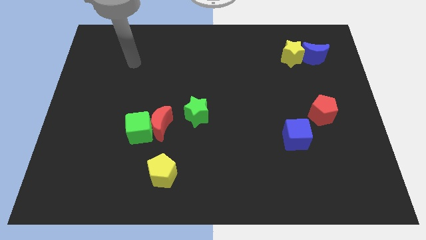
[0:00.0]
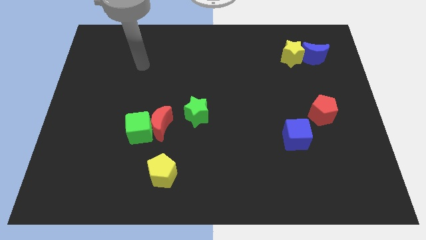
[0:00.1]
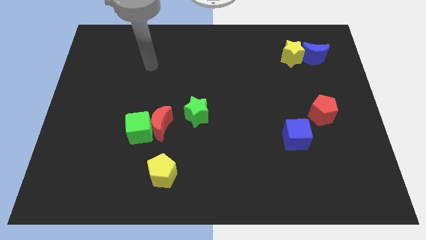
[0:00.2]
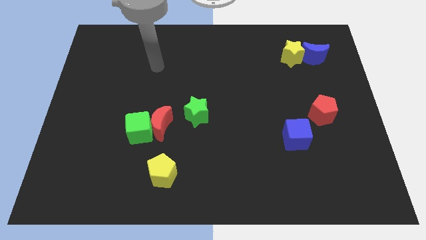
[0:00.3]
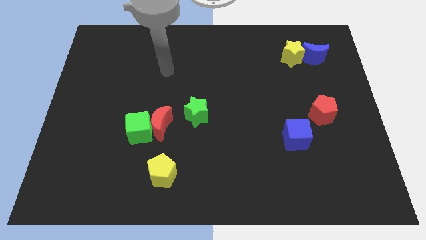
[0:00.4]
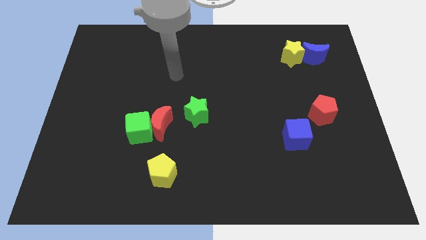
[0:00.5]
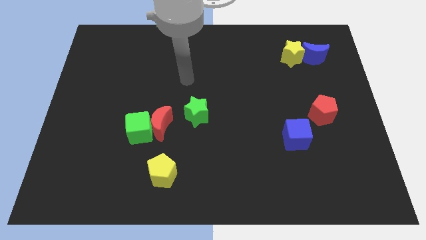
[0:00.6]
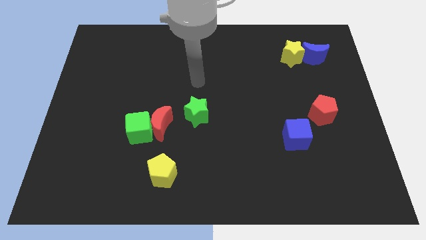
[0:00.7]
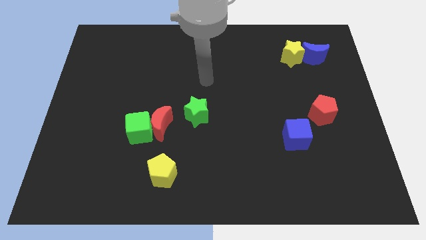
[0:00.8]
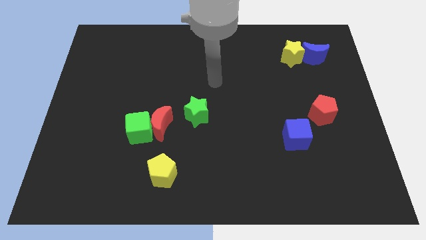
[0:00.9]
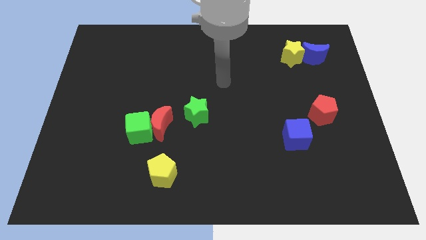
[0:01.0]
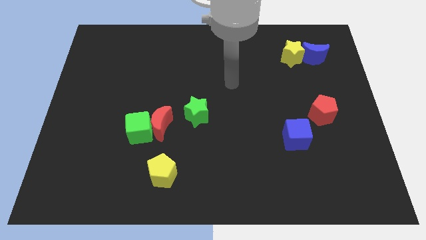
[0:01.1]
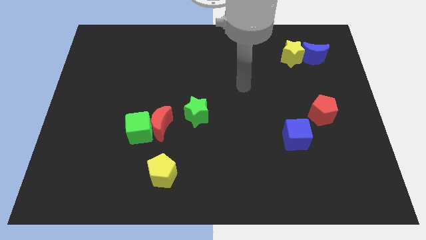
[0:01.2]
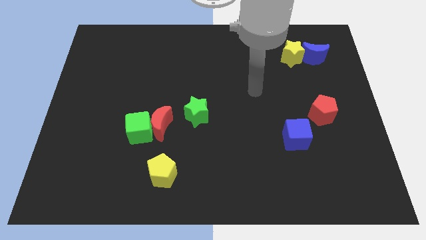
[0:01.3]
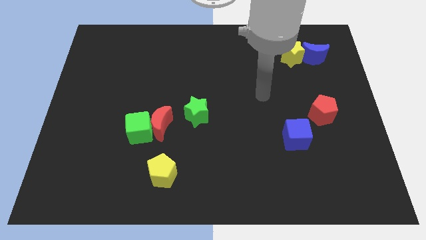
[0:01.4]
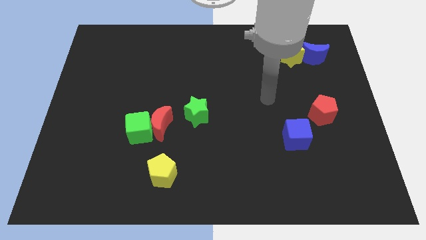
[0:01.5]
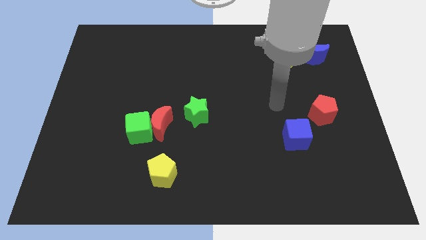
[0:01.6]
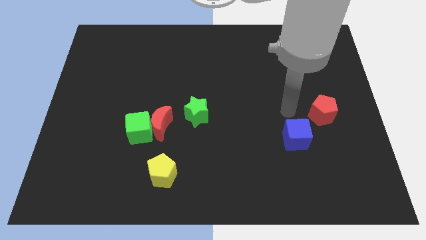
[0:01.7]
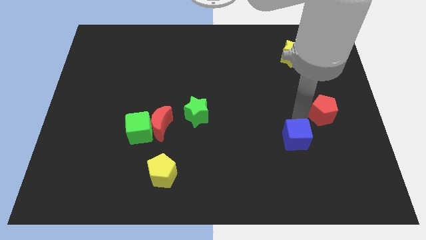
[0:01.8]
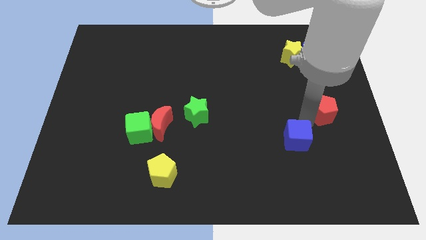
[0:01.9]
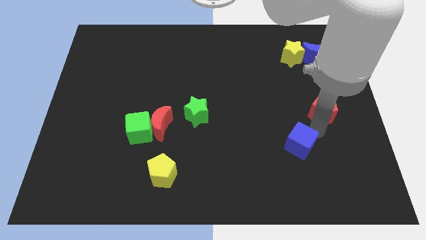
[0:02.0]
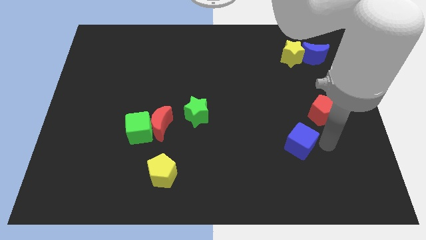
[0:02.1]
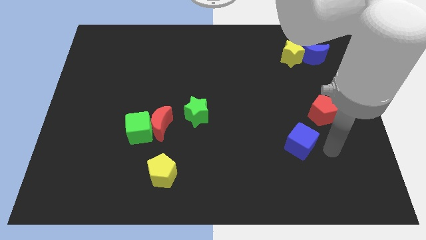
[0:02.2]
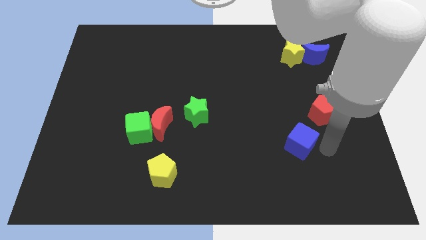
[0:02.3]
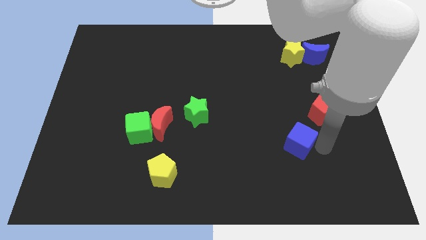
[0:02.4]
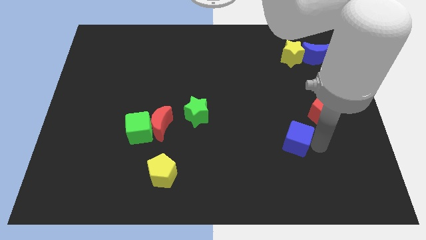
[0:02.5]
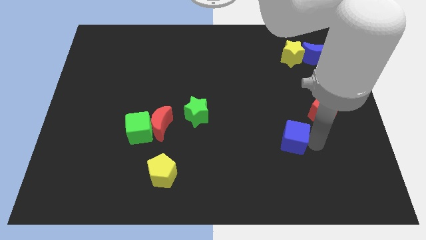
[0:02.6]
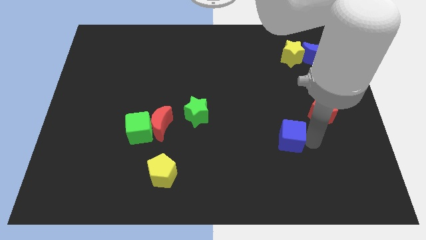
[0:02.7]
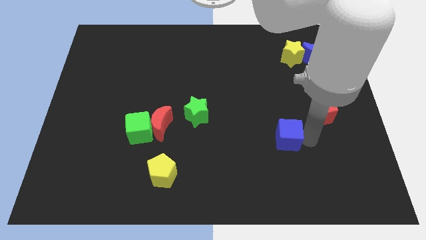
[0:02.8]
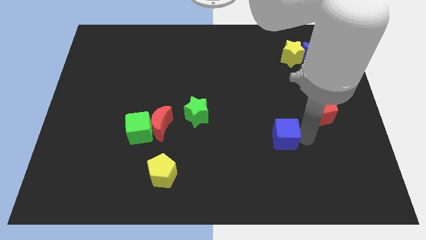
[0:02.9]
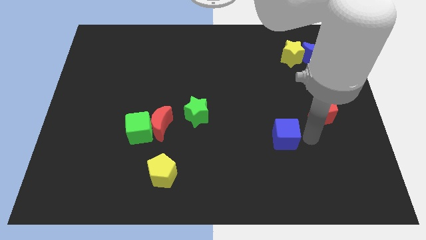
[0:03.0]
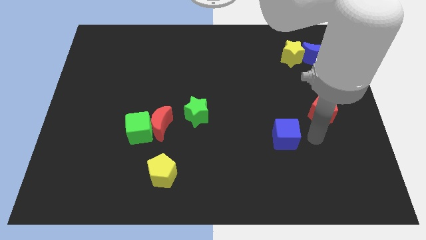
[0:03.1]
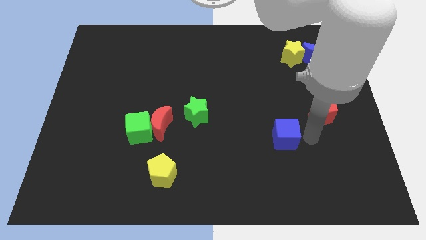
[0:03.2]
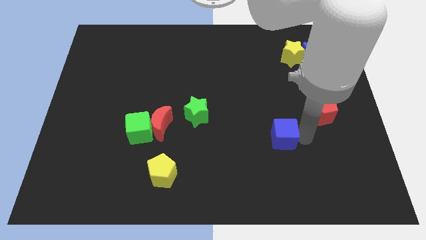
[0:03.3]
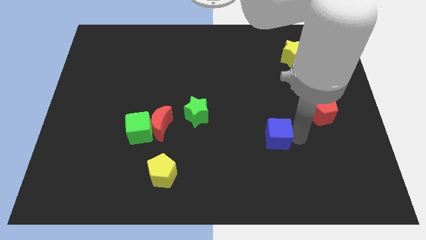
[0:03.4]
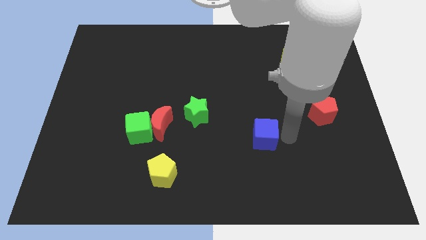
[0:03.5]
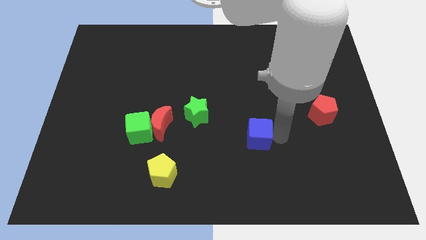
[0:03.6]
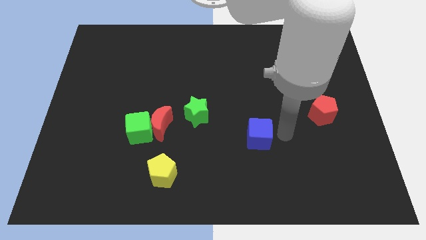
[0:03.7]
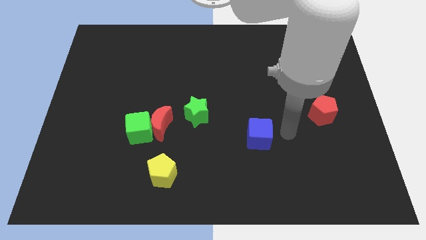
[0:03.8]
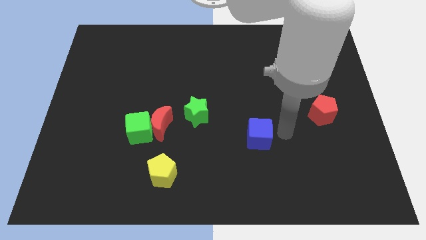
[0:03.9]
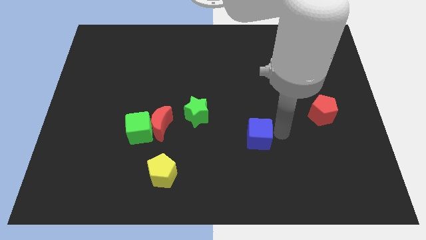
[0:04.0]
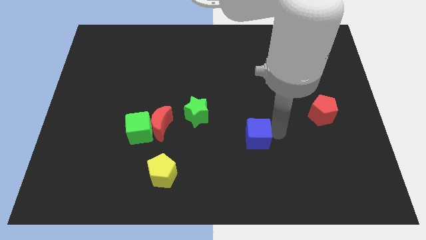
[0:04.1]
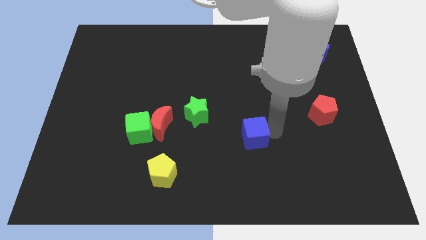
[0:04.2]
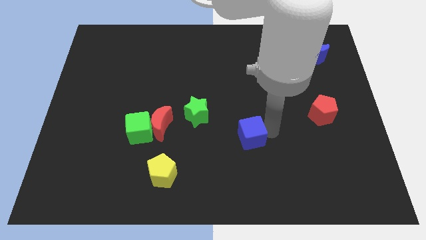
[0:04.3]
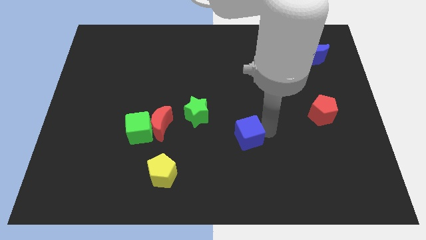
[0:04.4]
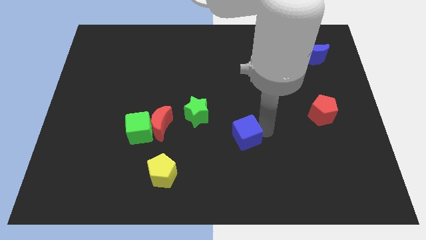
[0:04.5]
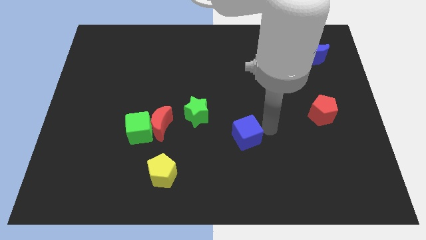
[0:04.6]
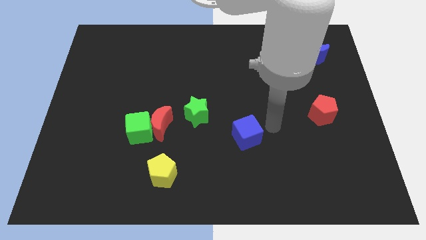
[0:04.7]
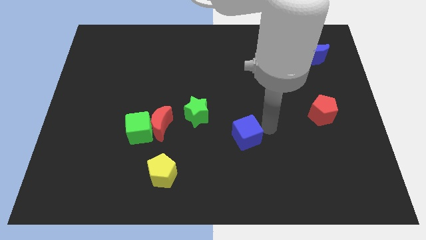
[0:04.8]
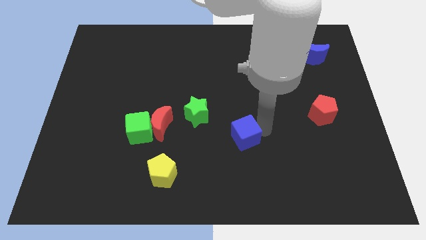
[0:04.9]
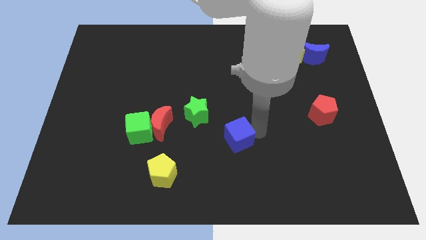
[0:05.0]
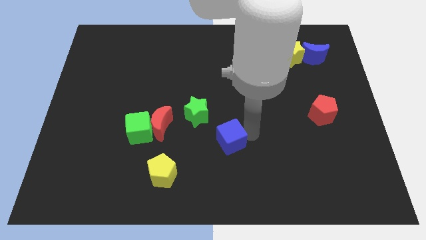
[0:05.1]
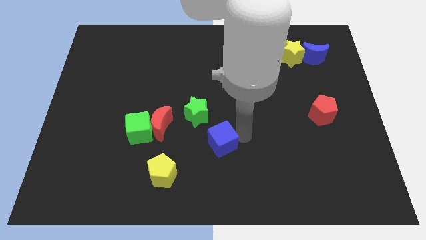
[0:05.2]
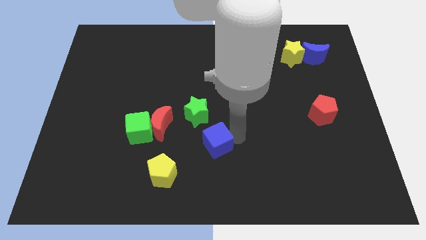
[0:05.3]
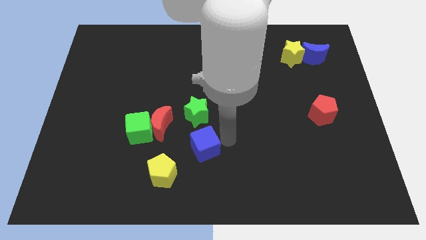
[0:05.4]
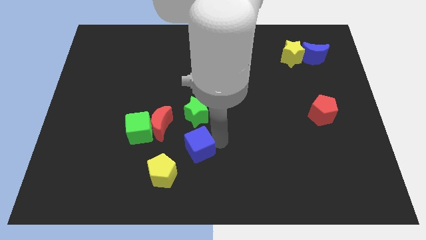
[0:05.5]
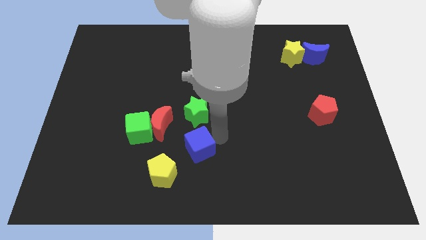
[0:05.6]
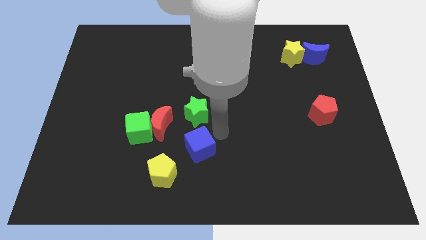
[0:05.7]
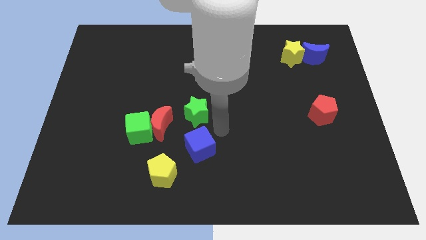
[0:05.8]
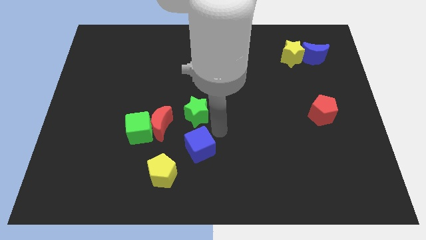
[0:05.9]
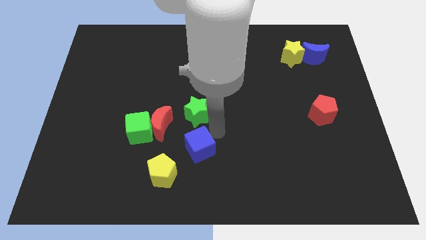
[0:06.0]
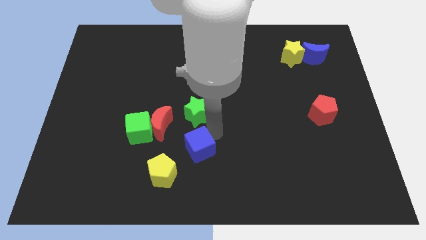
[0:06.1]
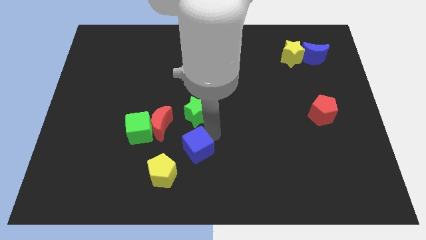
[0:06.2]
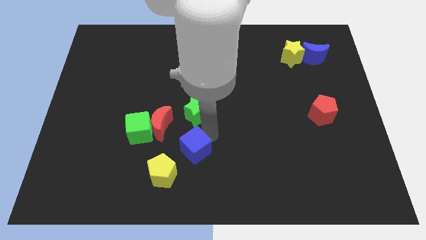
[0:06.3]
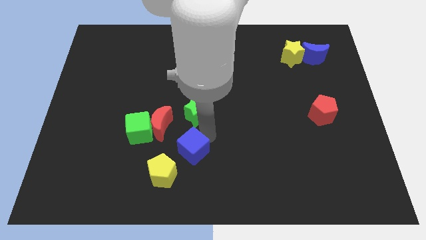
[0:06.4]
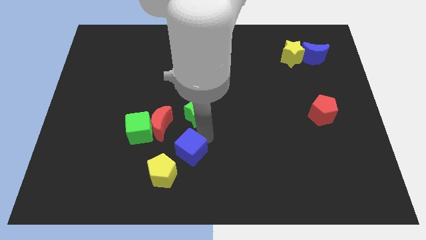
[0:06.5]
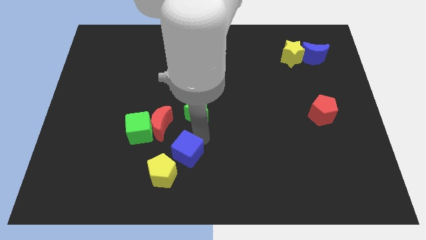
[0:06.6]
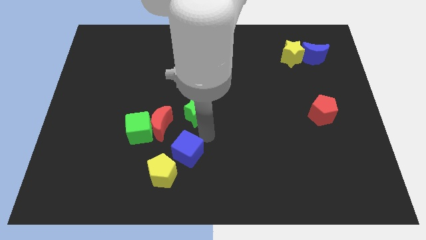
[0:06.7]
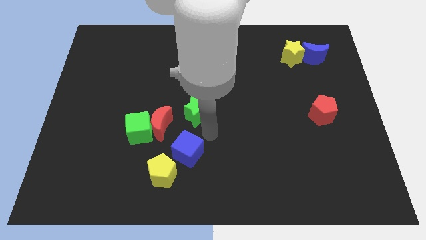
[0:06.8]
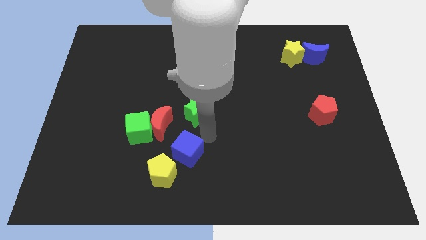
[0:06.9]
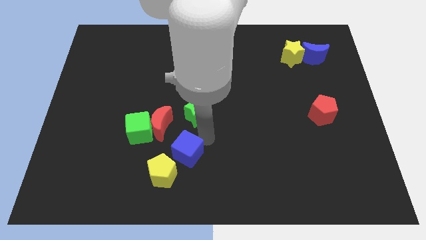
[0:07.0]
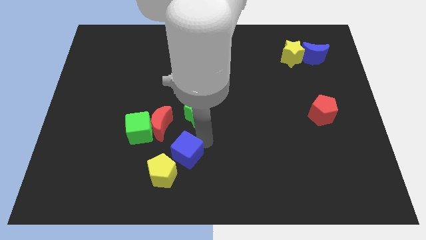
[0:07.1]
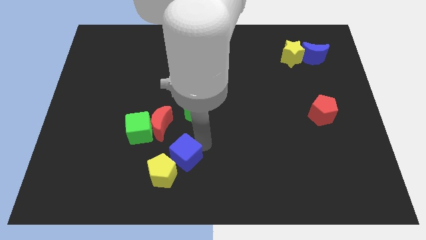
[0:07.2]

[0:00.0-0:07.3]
push the blue cube towards the yellow pentagon
